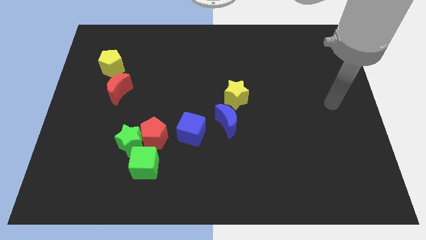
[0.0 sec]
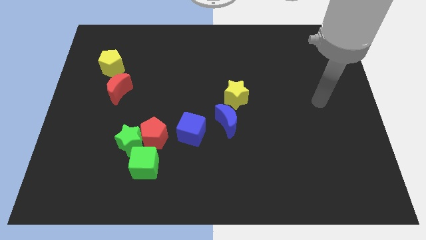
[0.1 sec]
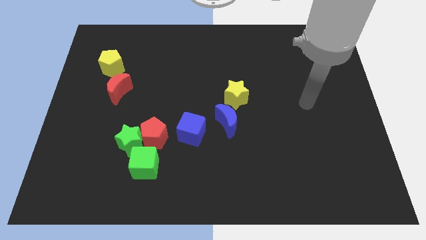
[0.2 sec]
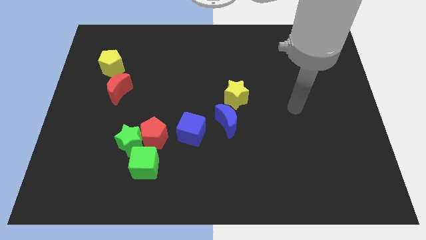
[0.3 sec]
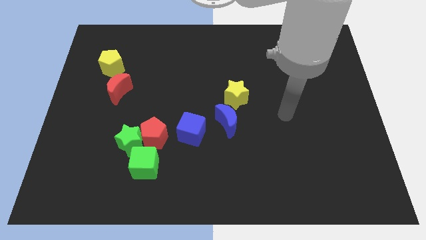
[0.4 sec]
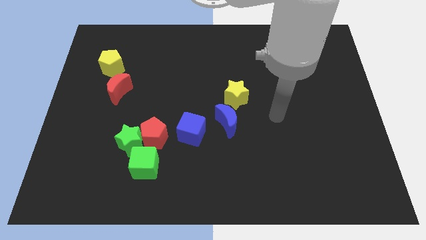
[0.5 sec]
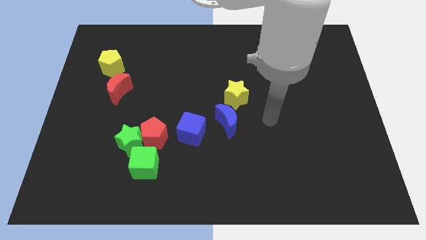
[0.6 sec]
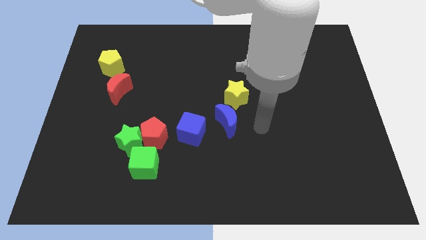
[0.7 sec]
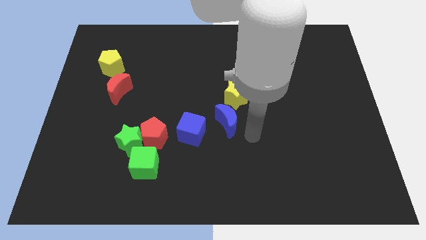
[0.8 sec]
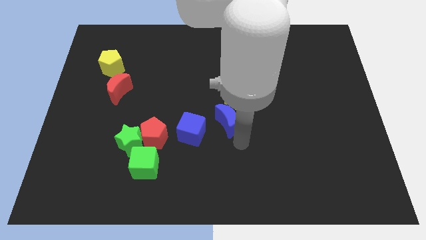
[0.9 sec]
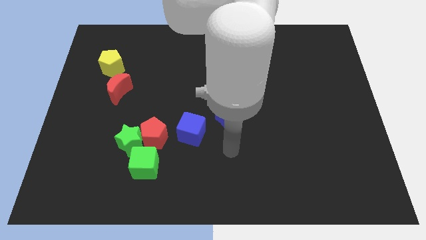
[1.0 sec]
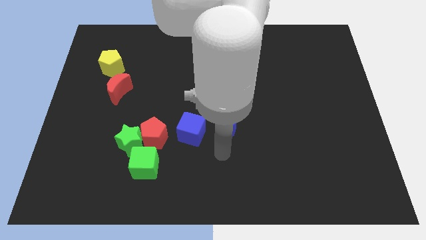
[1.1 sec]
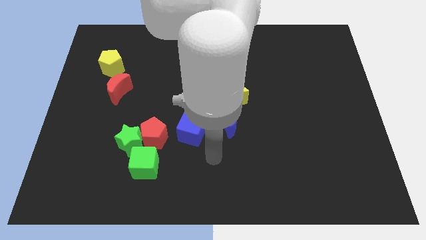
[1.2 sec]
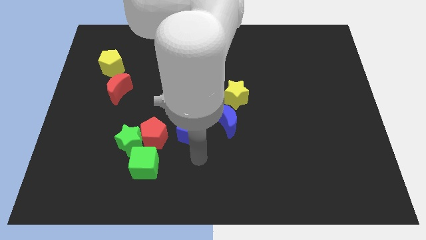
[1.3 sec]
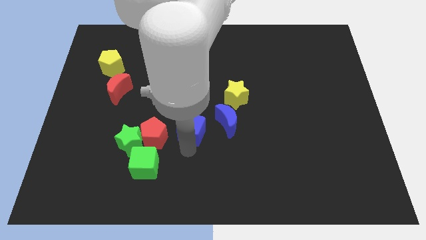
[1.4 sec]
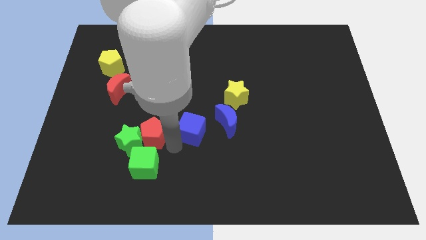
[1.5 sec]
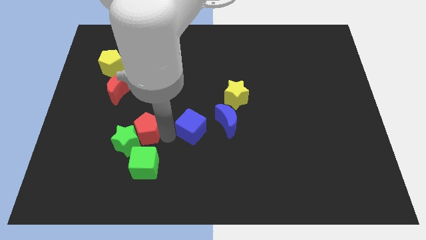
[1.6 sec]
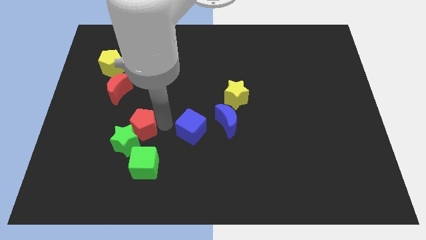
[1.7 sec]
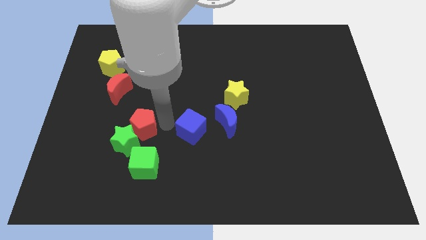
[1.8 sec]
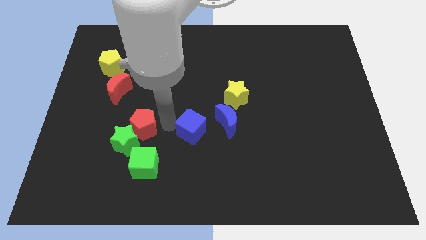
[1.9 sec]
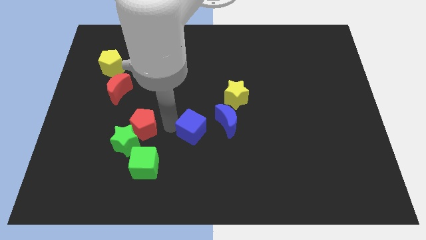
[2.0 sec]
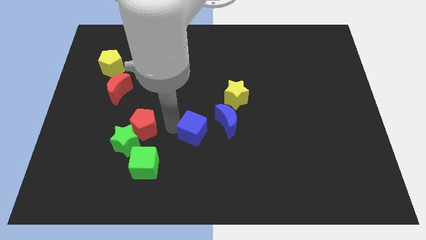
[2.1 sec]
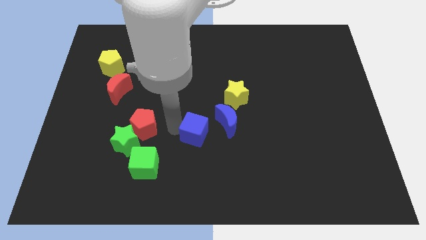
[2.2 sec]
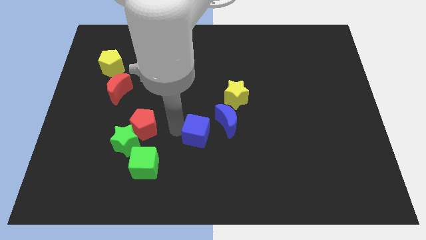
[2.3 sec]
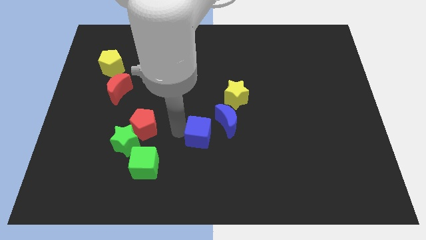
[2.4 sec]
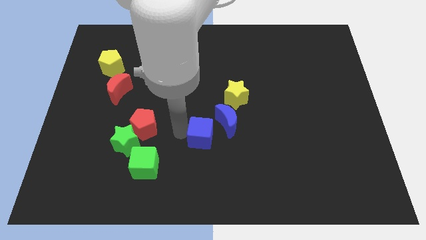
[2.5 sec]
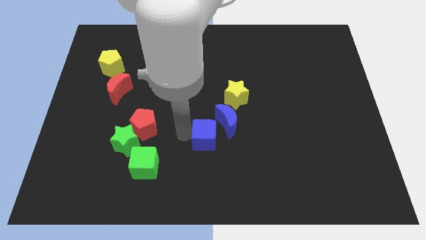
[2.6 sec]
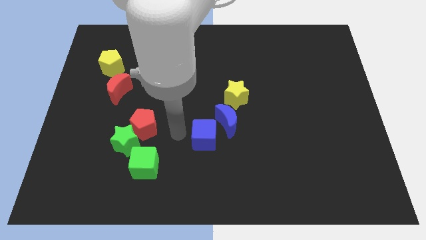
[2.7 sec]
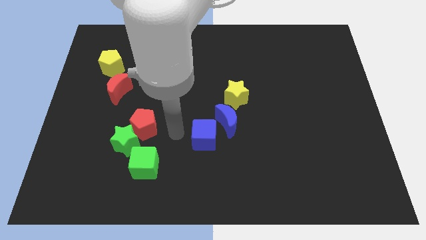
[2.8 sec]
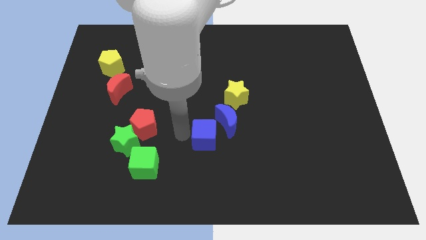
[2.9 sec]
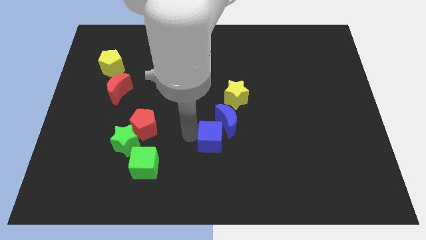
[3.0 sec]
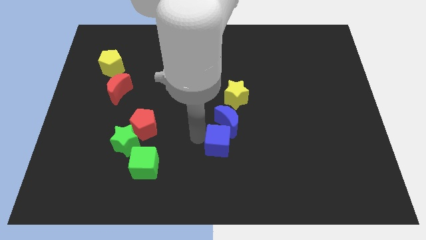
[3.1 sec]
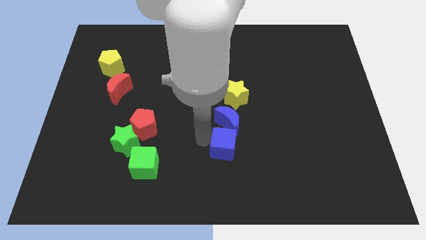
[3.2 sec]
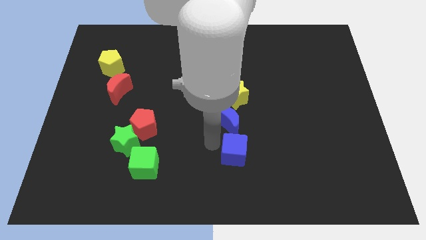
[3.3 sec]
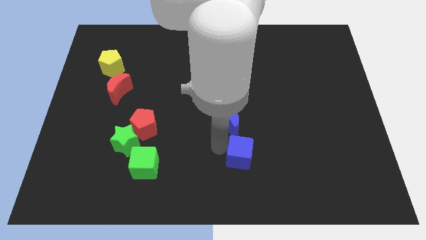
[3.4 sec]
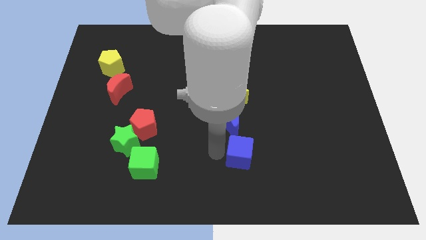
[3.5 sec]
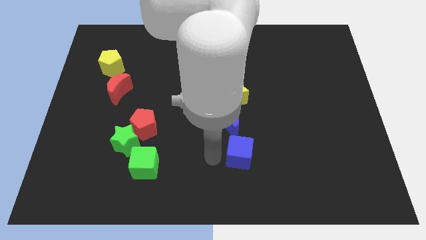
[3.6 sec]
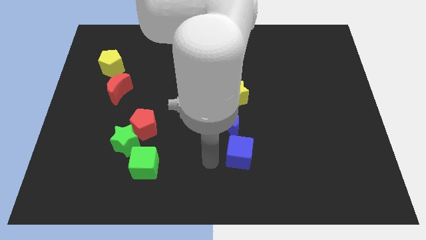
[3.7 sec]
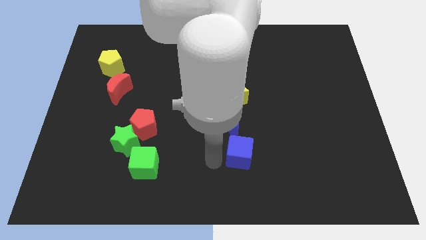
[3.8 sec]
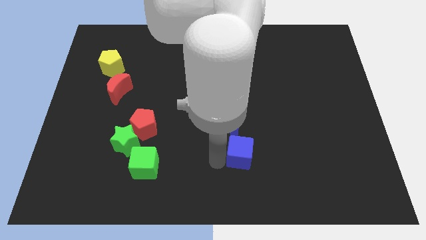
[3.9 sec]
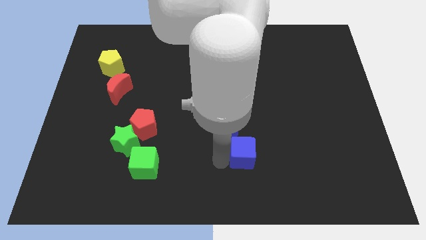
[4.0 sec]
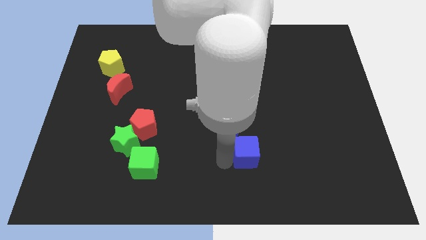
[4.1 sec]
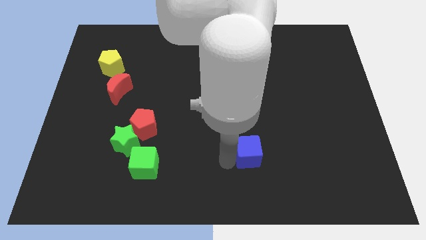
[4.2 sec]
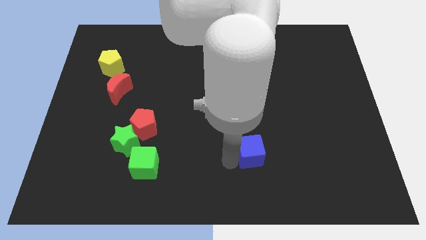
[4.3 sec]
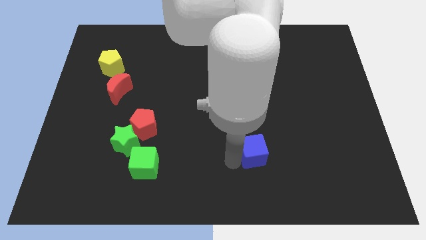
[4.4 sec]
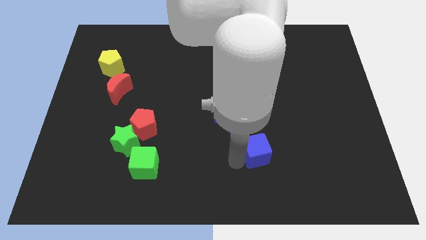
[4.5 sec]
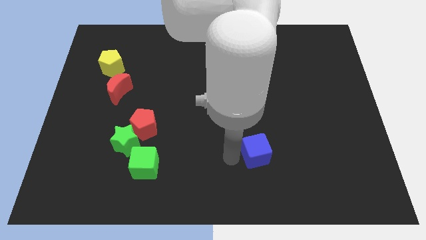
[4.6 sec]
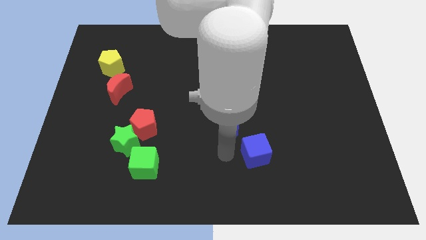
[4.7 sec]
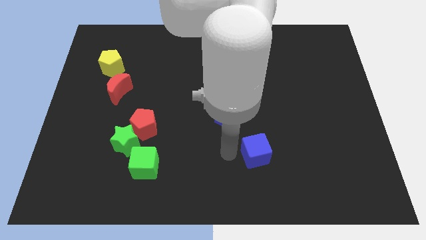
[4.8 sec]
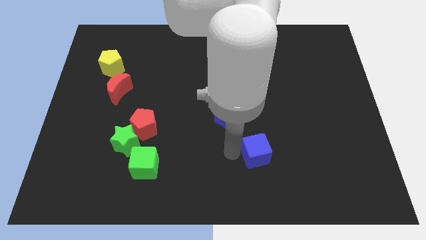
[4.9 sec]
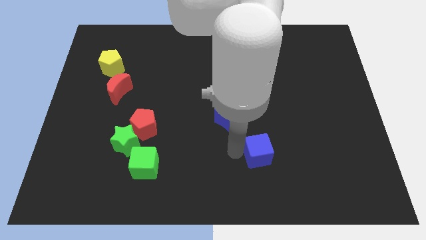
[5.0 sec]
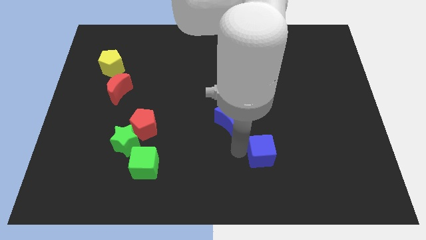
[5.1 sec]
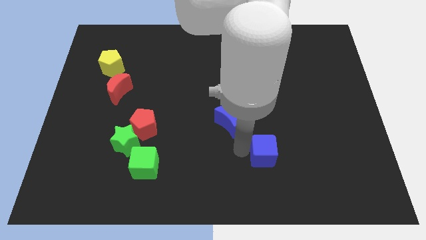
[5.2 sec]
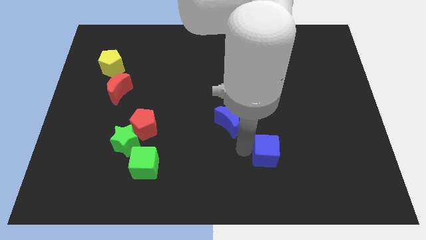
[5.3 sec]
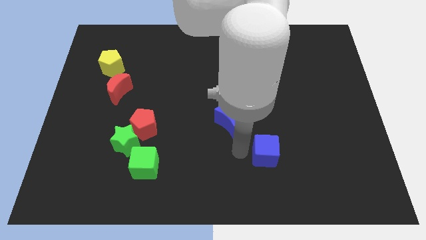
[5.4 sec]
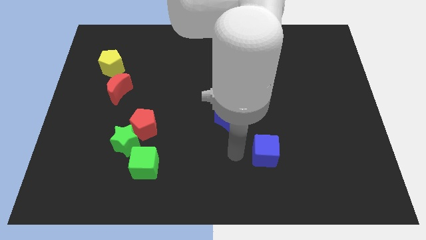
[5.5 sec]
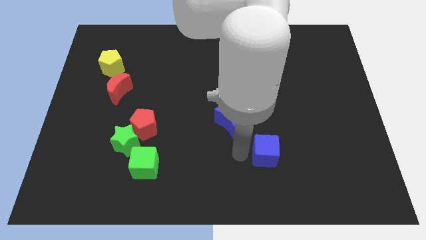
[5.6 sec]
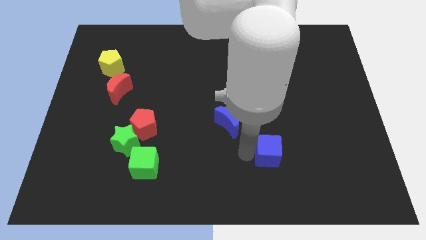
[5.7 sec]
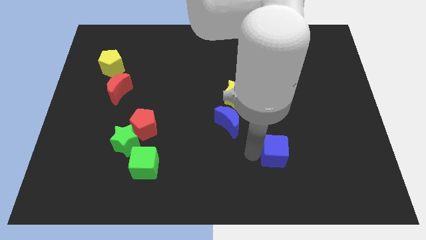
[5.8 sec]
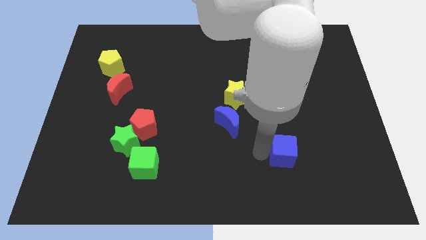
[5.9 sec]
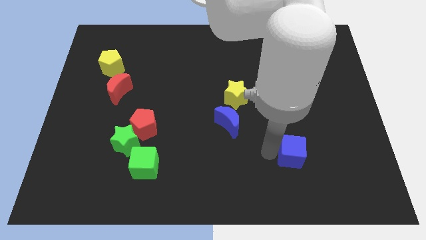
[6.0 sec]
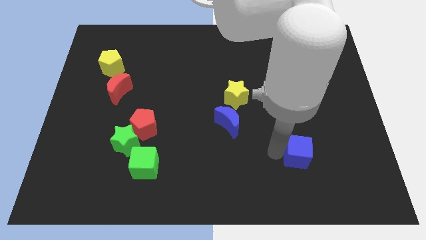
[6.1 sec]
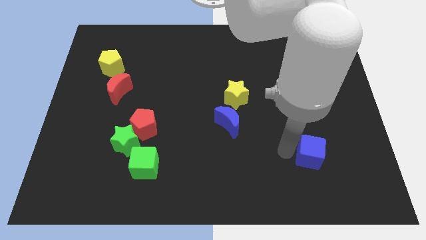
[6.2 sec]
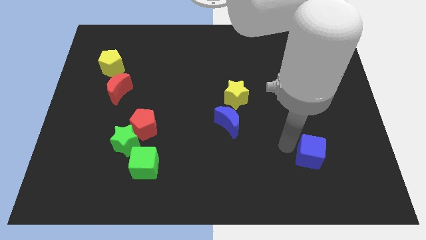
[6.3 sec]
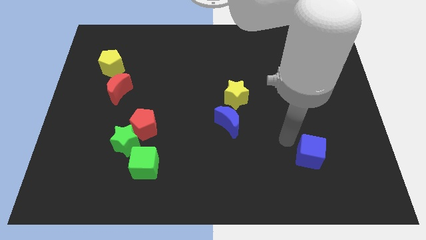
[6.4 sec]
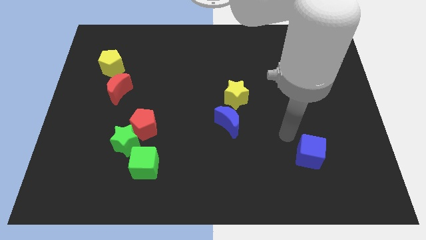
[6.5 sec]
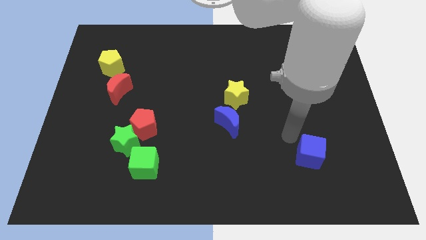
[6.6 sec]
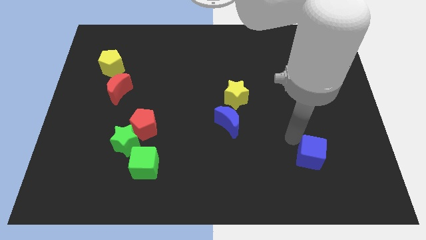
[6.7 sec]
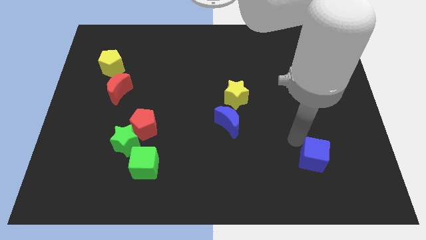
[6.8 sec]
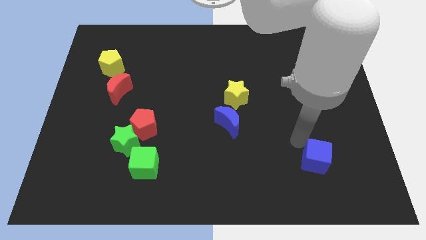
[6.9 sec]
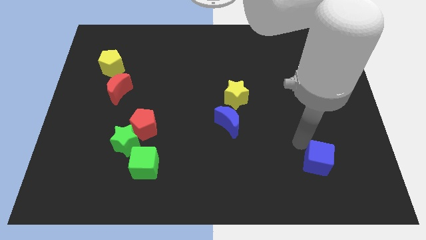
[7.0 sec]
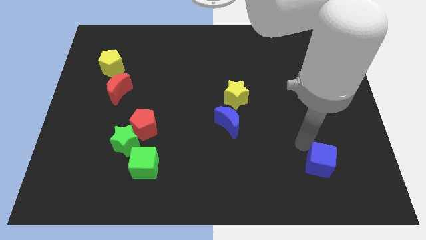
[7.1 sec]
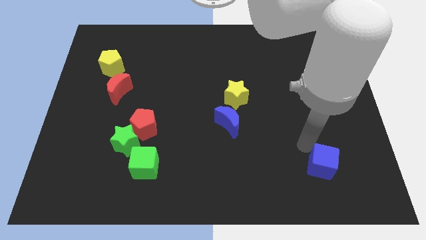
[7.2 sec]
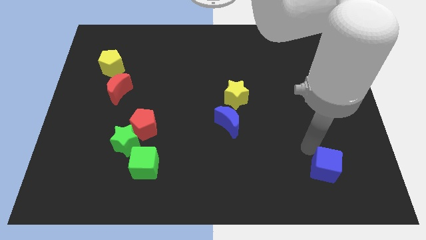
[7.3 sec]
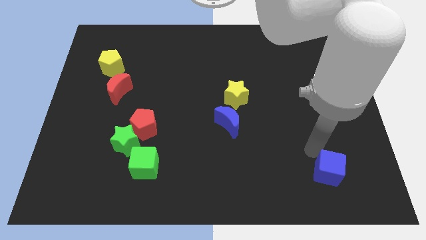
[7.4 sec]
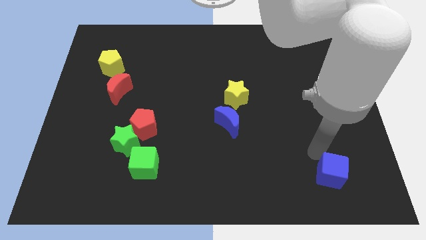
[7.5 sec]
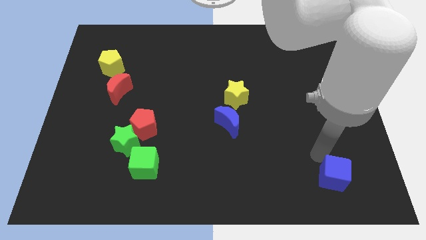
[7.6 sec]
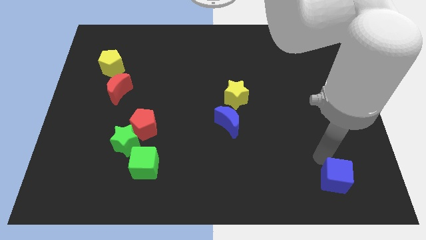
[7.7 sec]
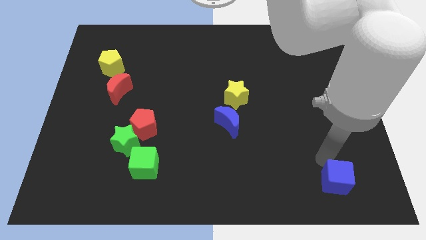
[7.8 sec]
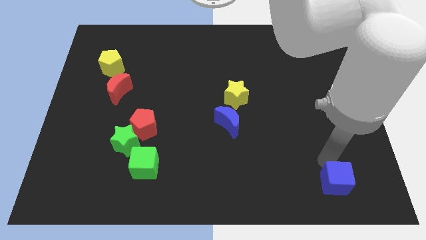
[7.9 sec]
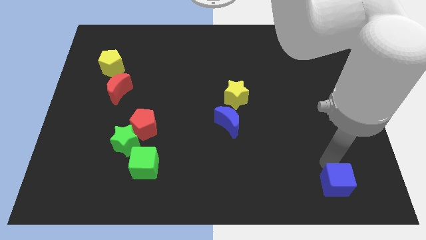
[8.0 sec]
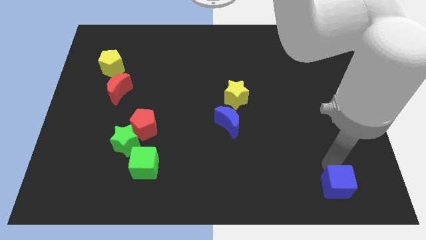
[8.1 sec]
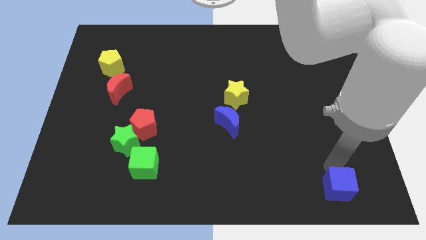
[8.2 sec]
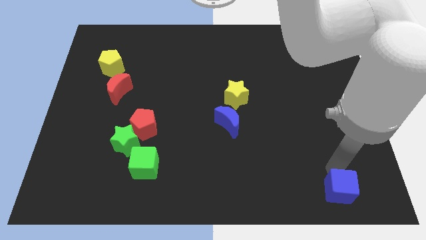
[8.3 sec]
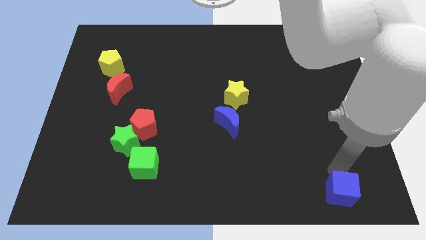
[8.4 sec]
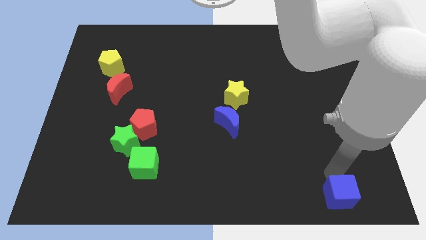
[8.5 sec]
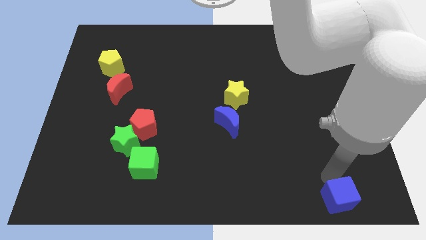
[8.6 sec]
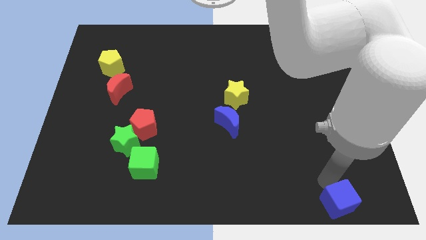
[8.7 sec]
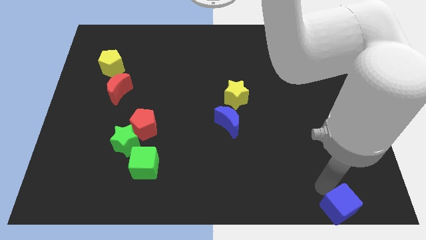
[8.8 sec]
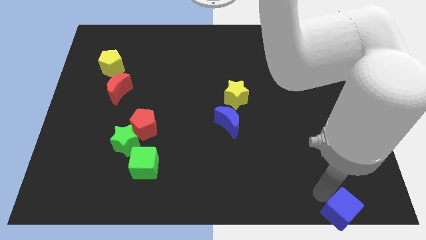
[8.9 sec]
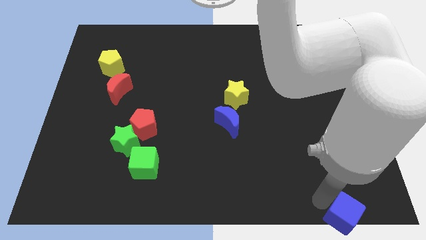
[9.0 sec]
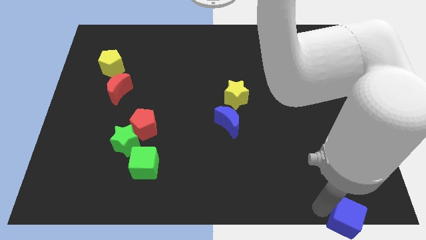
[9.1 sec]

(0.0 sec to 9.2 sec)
move the blue cube to the lower right corner
